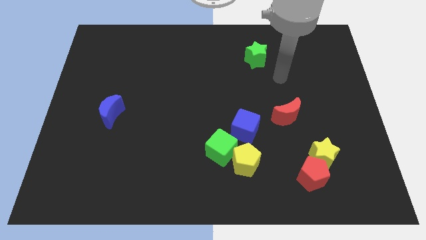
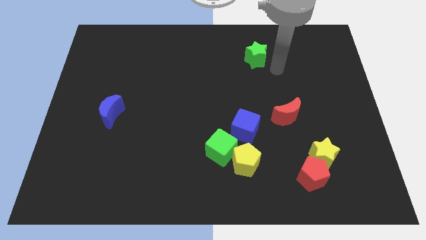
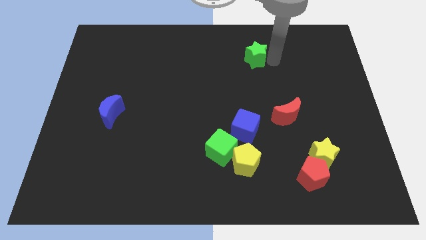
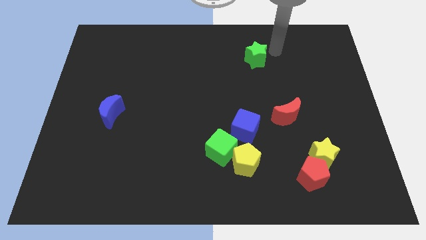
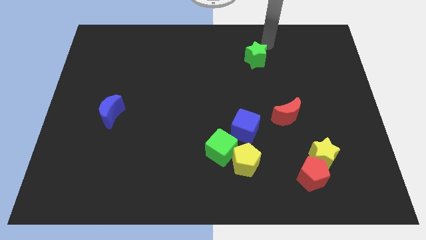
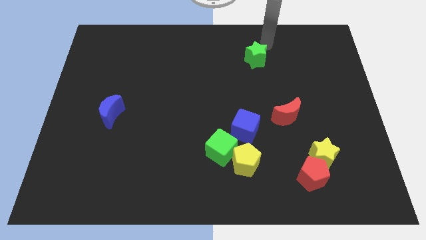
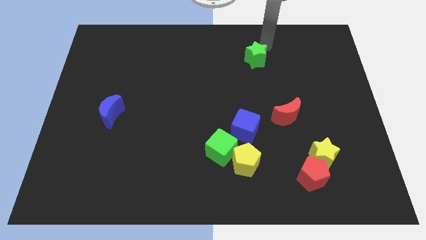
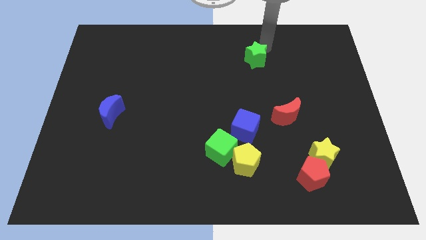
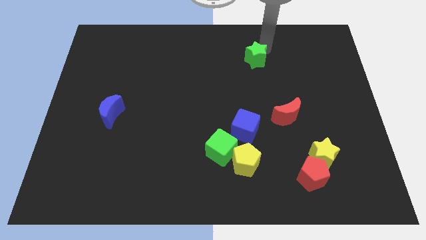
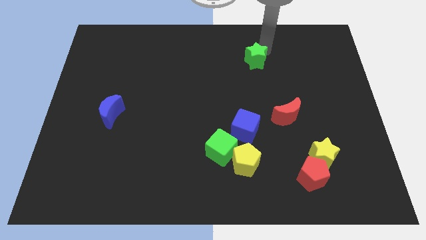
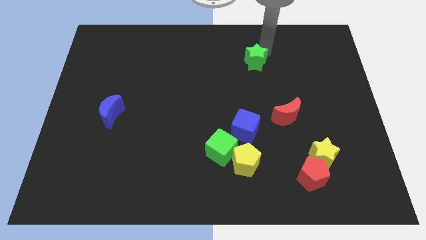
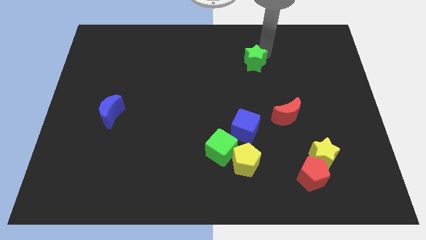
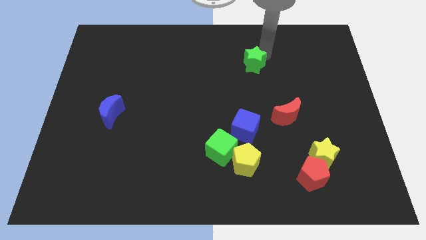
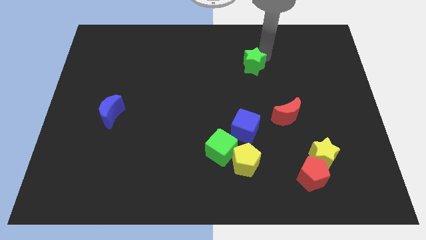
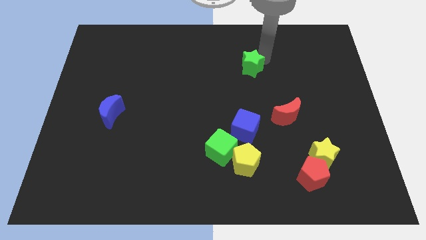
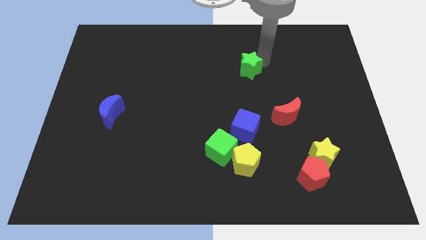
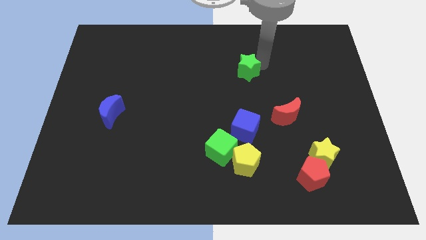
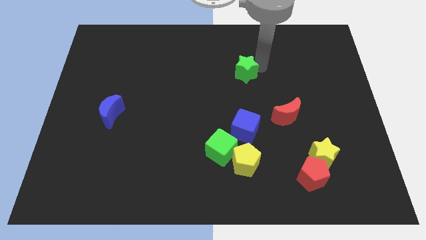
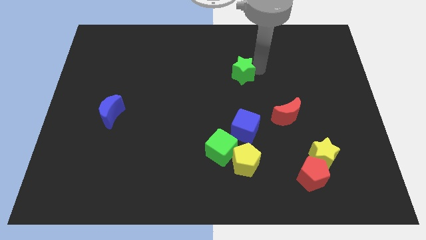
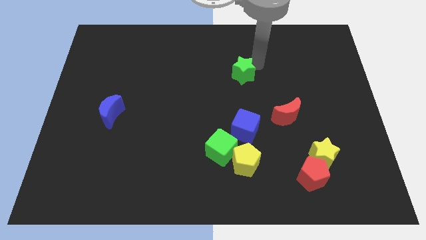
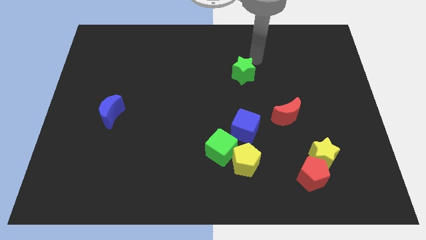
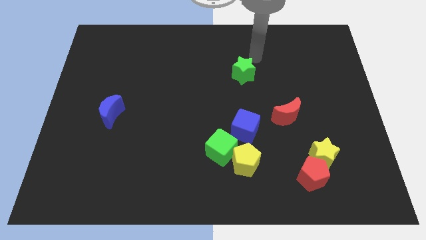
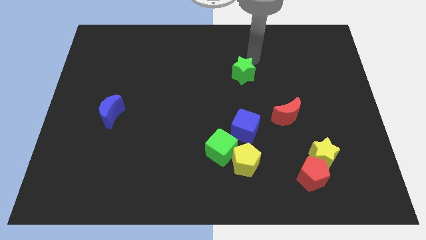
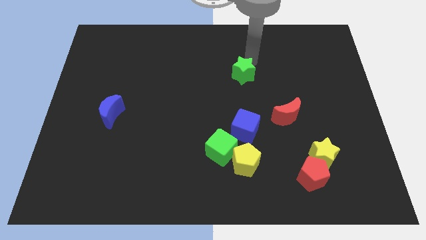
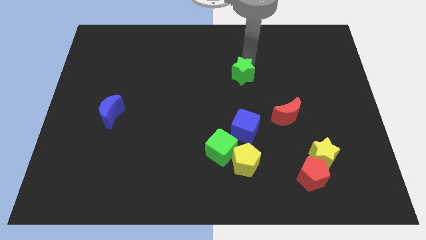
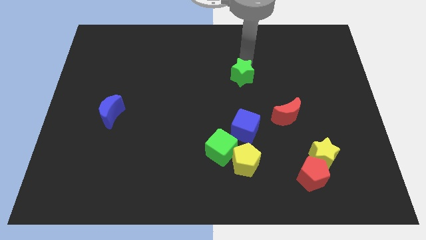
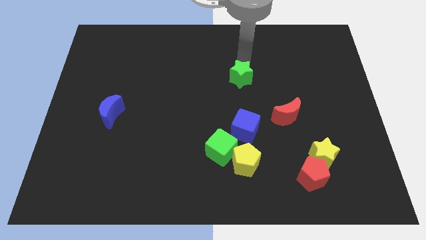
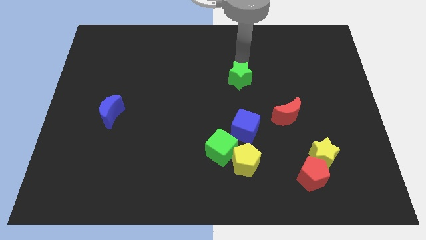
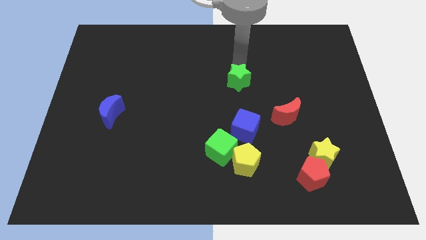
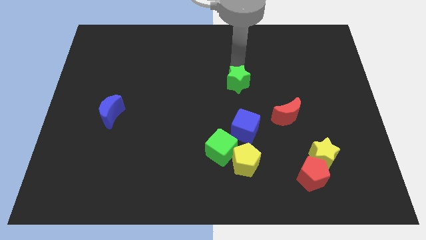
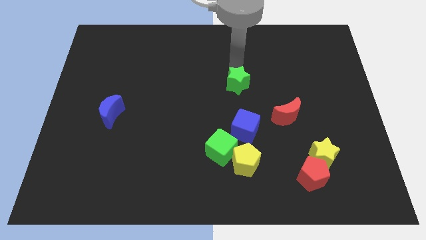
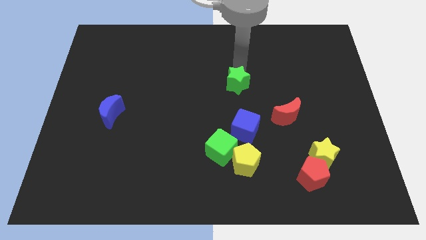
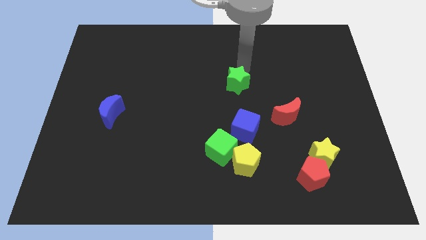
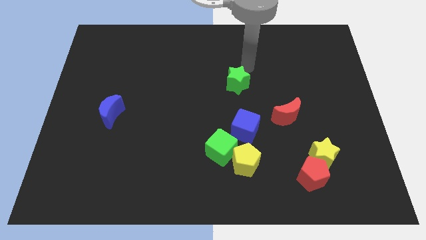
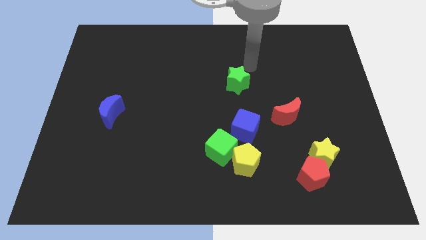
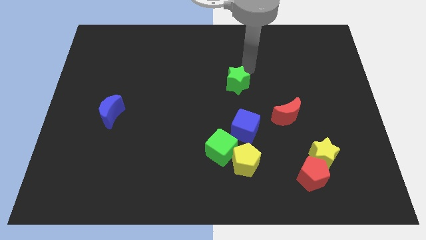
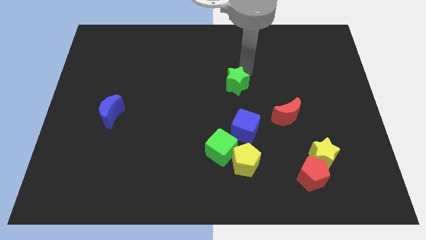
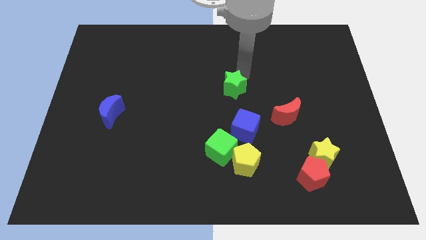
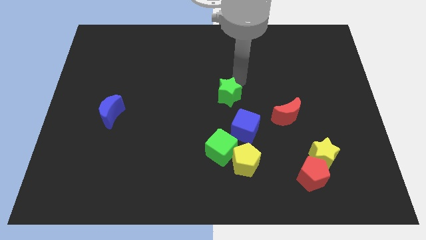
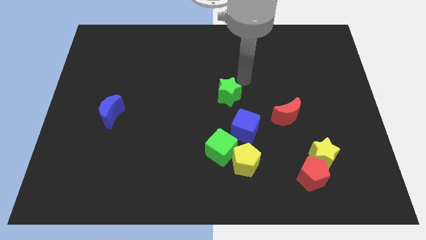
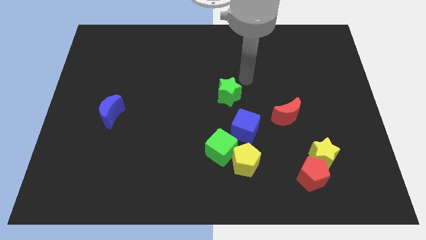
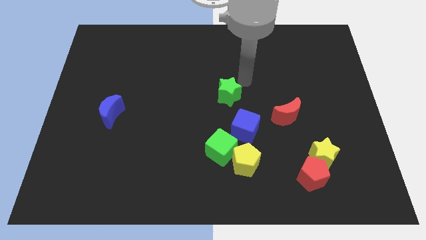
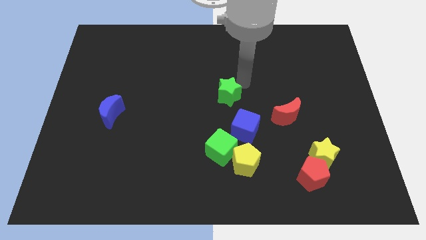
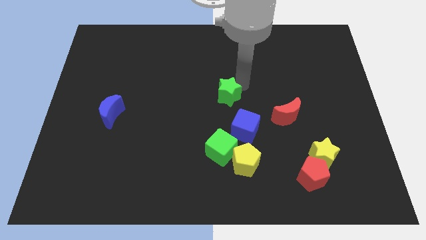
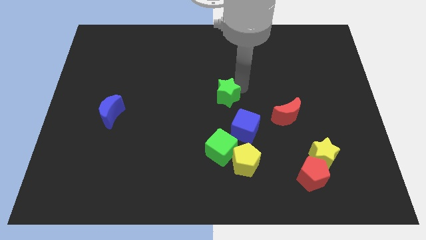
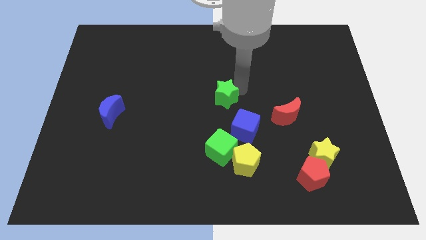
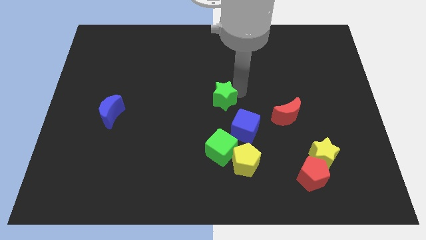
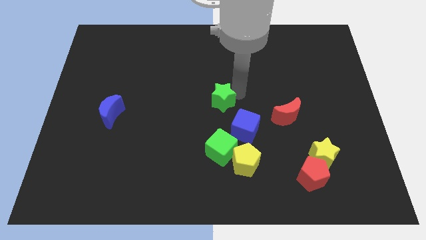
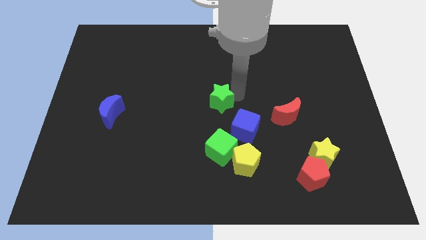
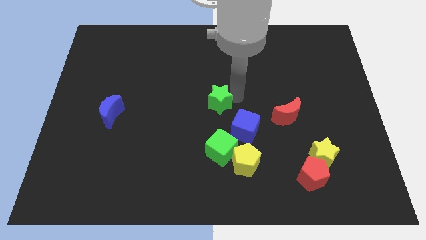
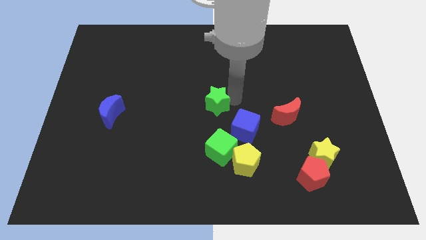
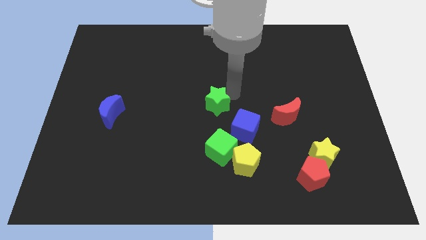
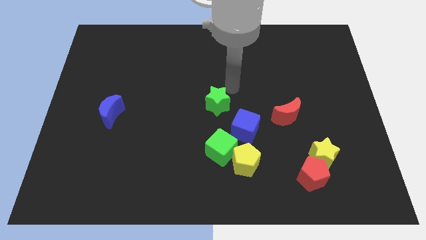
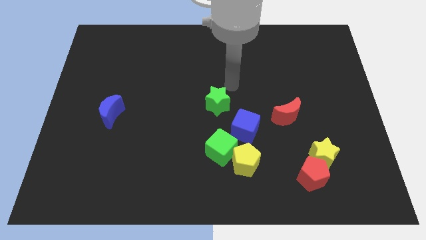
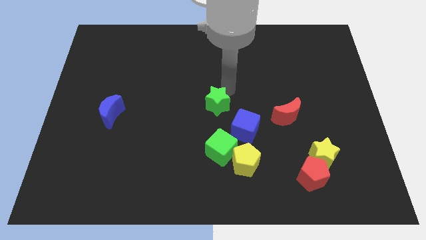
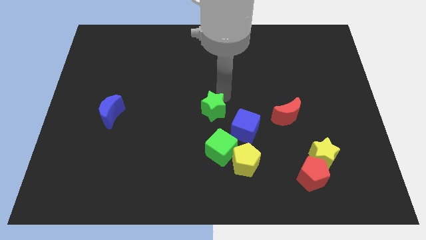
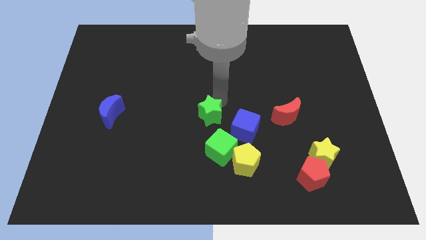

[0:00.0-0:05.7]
put the green star to the left of the blue cube
